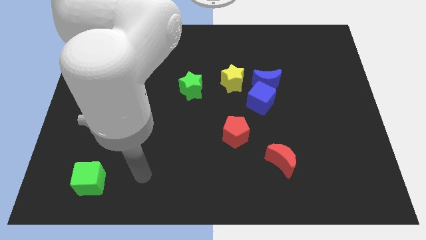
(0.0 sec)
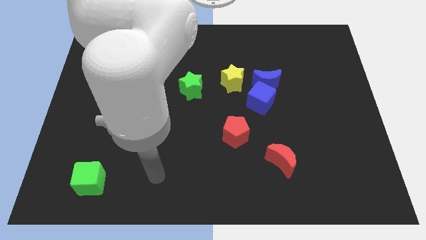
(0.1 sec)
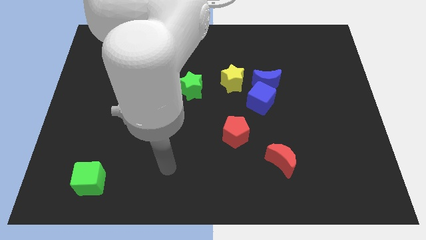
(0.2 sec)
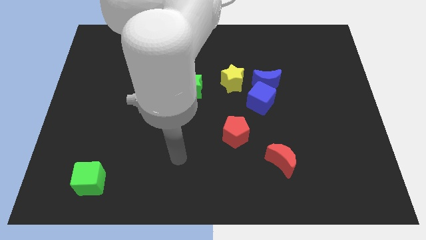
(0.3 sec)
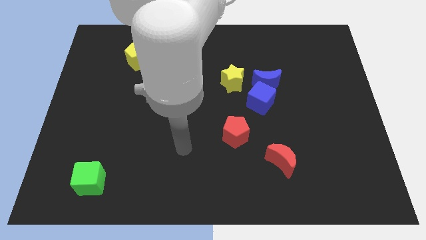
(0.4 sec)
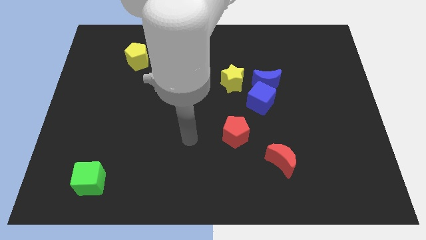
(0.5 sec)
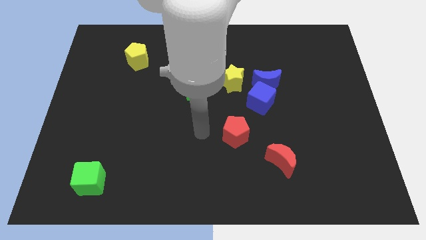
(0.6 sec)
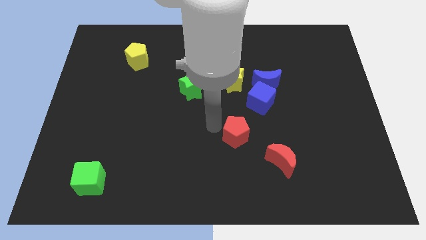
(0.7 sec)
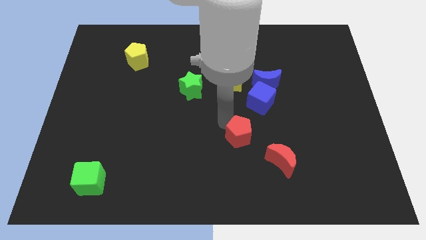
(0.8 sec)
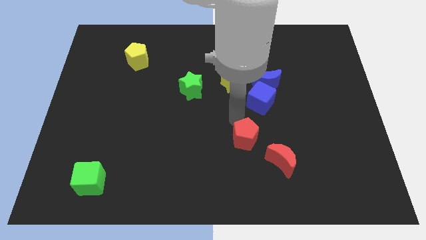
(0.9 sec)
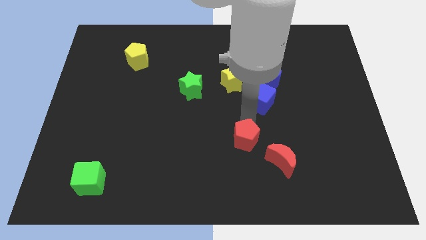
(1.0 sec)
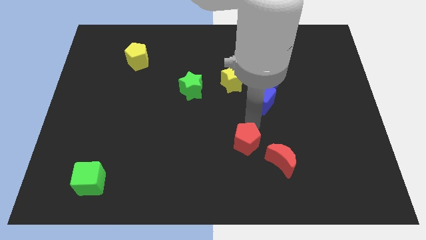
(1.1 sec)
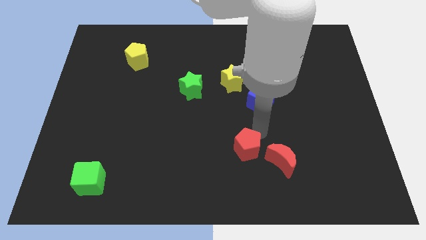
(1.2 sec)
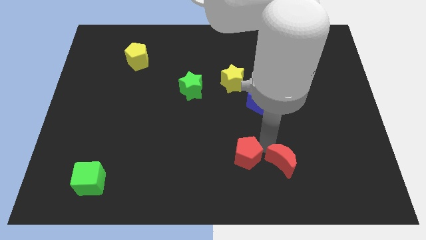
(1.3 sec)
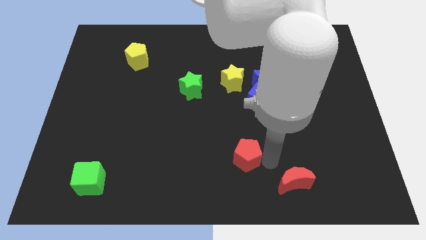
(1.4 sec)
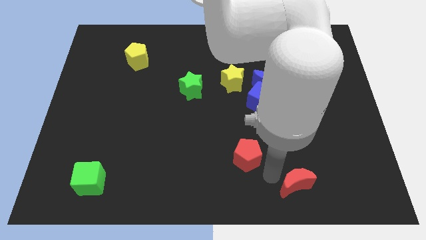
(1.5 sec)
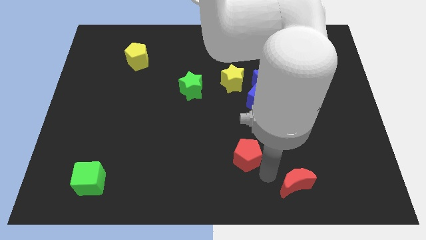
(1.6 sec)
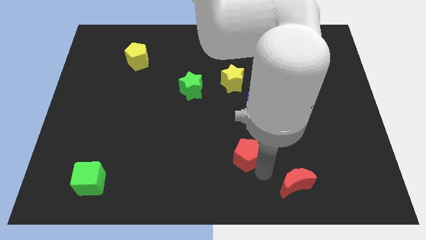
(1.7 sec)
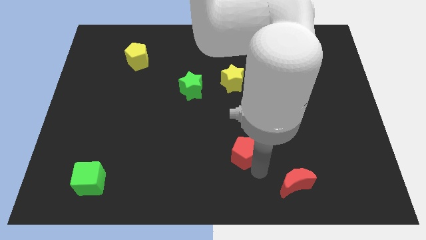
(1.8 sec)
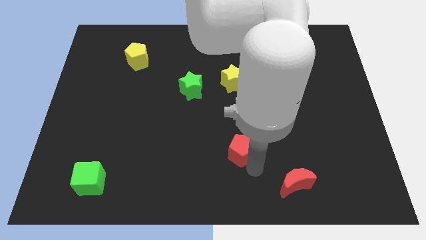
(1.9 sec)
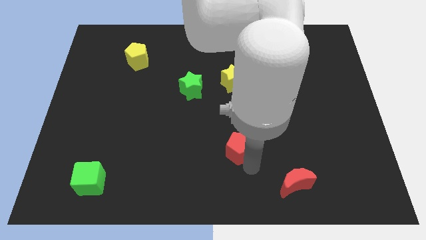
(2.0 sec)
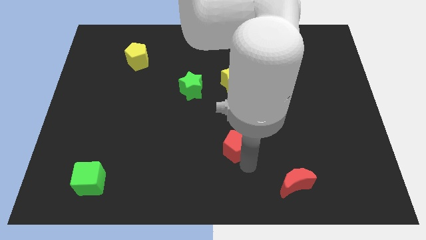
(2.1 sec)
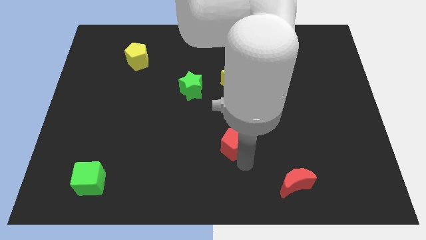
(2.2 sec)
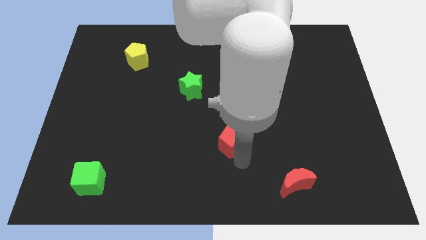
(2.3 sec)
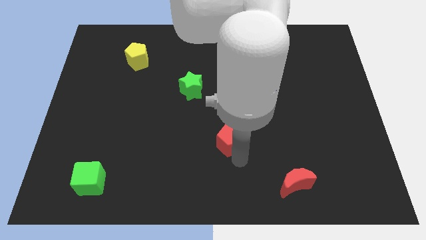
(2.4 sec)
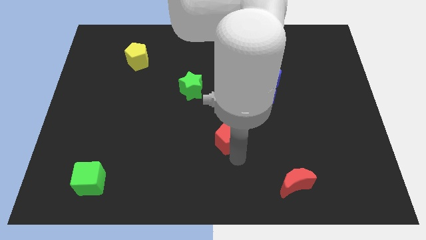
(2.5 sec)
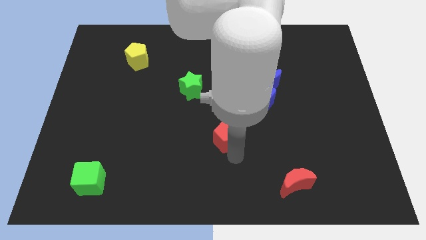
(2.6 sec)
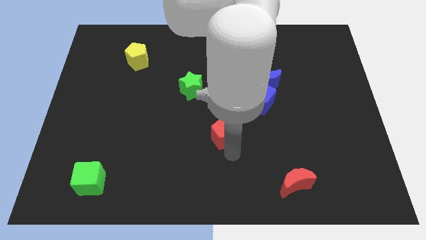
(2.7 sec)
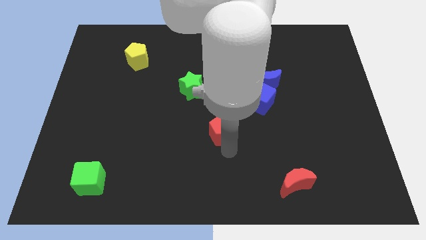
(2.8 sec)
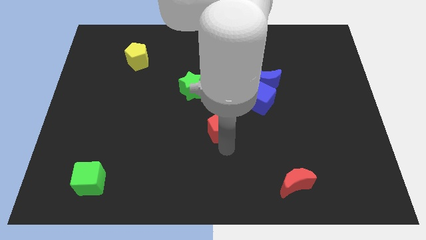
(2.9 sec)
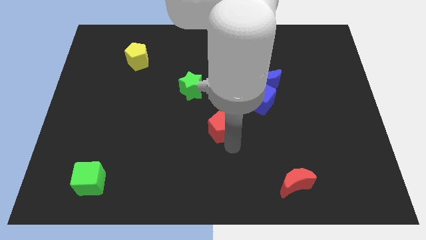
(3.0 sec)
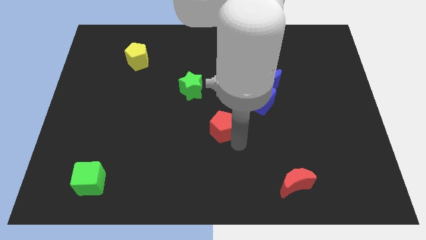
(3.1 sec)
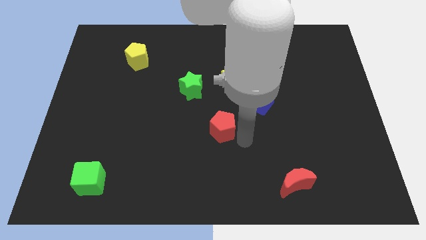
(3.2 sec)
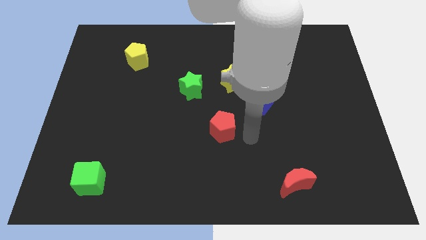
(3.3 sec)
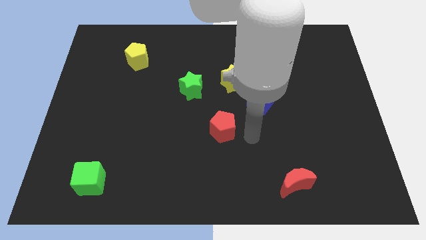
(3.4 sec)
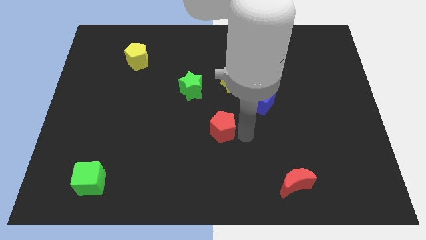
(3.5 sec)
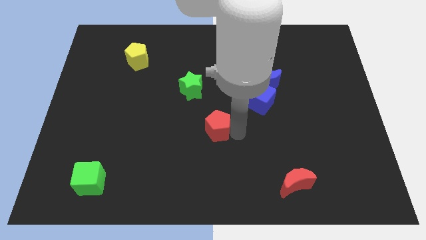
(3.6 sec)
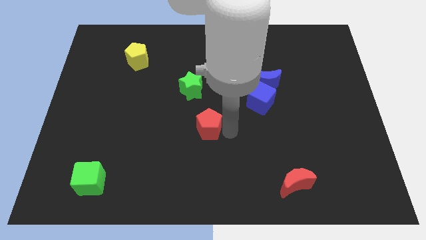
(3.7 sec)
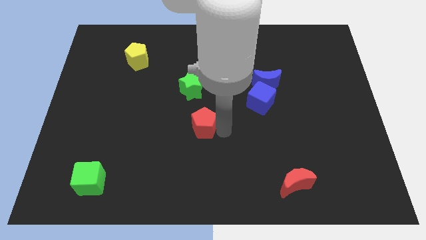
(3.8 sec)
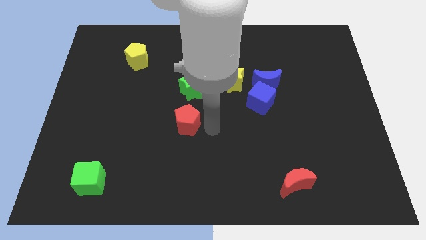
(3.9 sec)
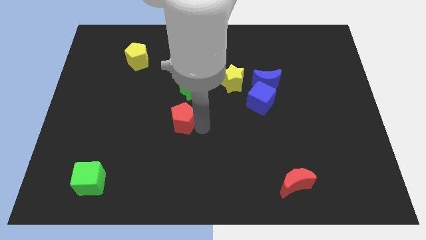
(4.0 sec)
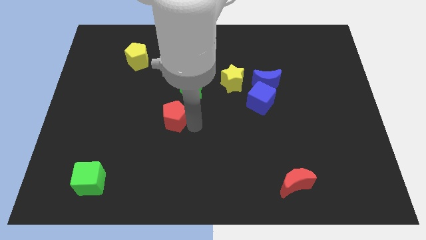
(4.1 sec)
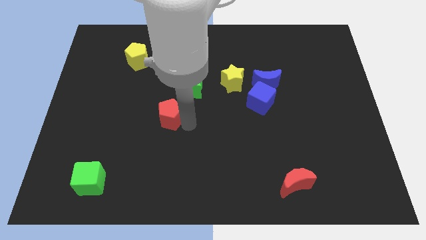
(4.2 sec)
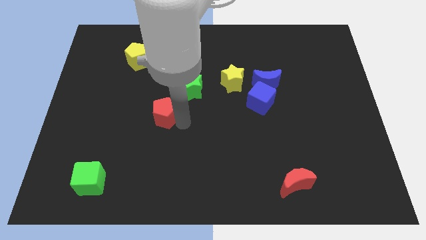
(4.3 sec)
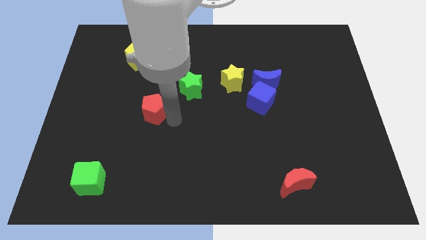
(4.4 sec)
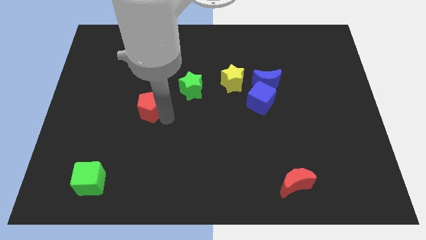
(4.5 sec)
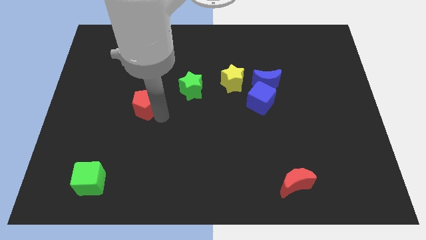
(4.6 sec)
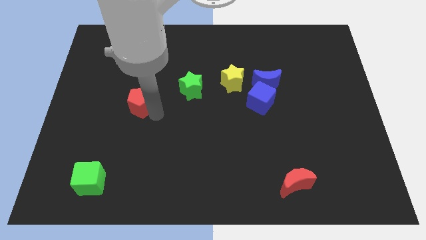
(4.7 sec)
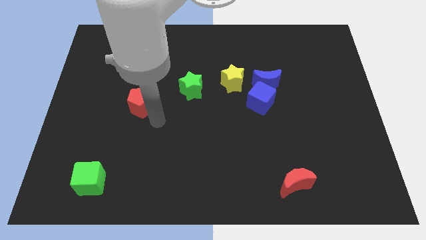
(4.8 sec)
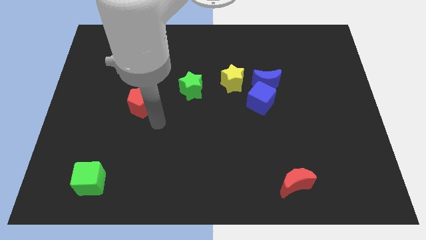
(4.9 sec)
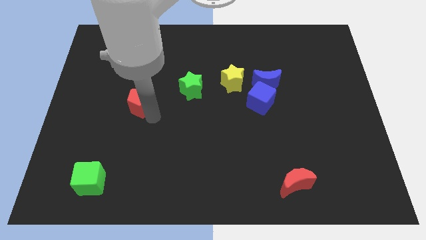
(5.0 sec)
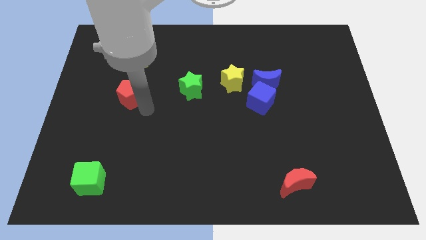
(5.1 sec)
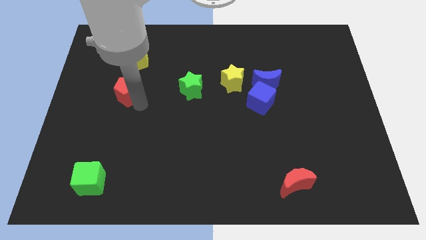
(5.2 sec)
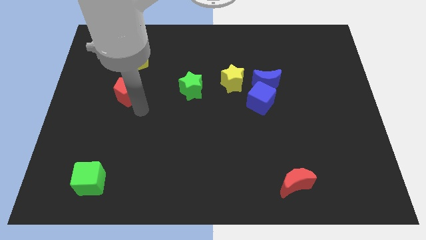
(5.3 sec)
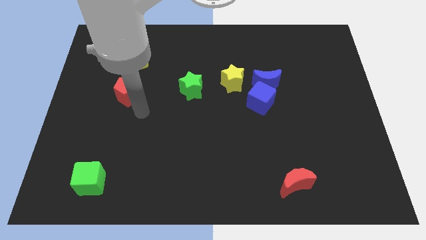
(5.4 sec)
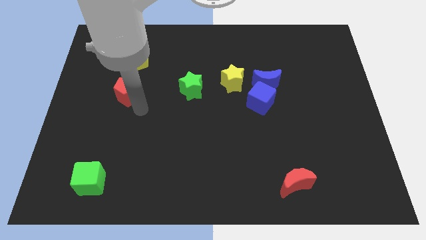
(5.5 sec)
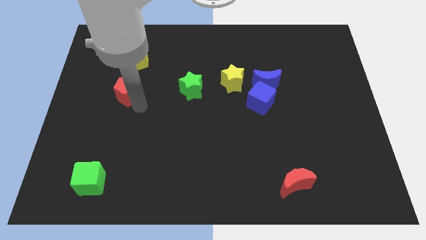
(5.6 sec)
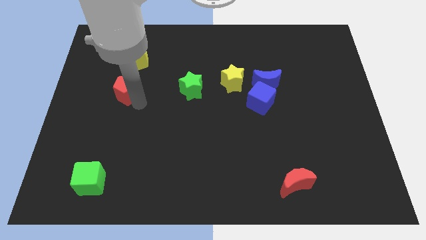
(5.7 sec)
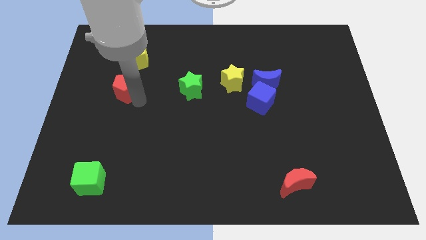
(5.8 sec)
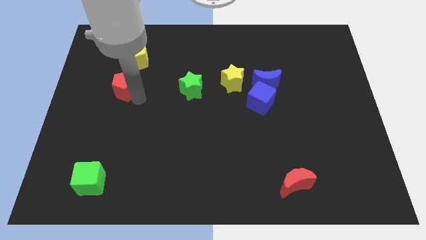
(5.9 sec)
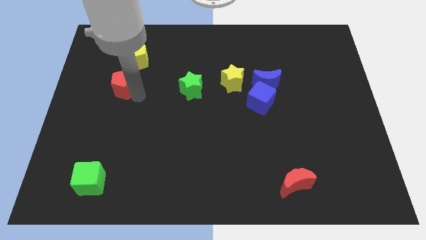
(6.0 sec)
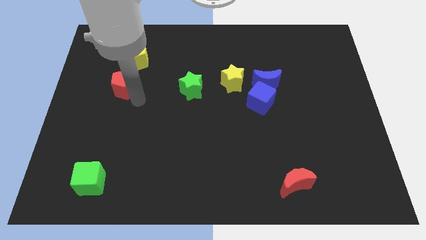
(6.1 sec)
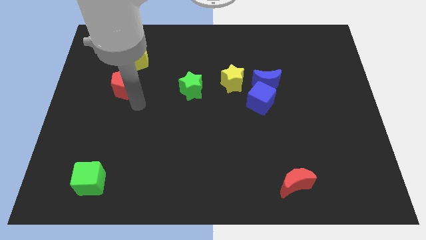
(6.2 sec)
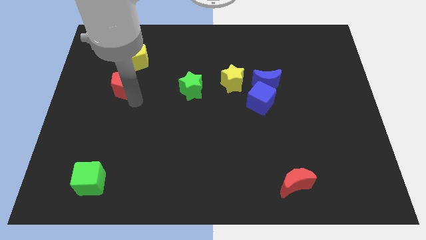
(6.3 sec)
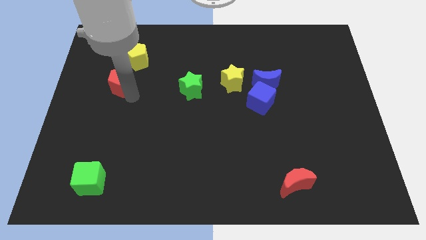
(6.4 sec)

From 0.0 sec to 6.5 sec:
move the red pentagon to the bottom left of the yellow pentagon

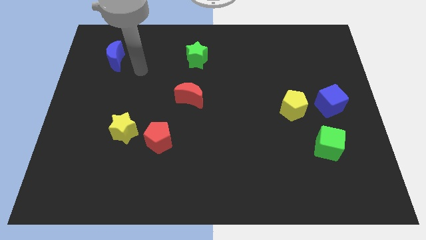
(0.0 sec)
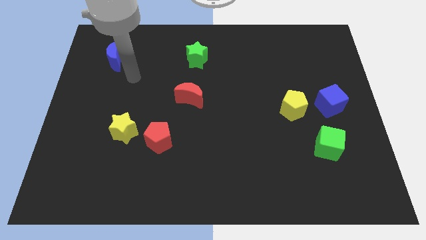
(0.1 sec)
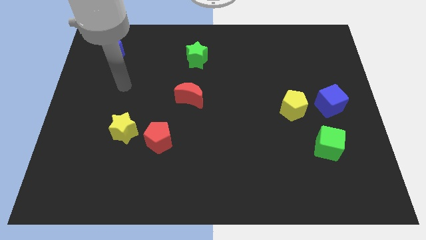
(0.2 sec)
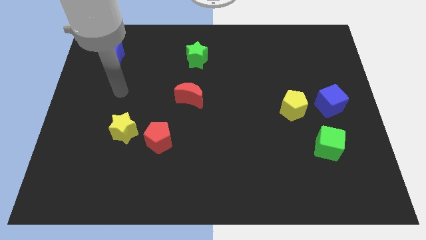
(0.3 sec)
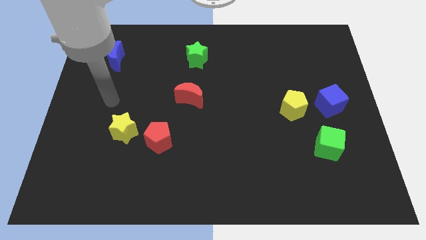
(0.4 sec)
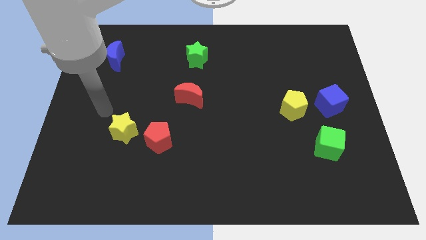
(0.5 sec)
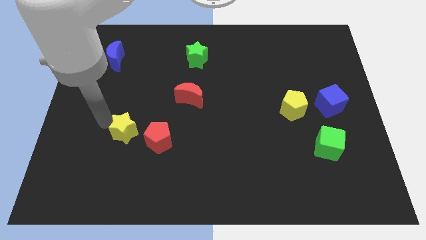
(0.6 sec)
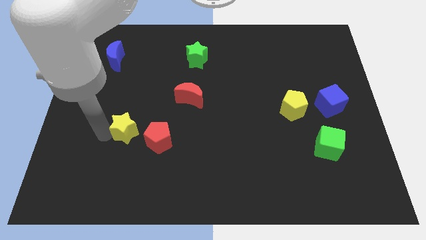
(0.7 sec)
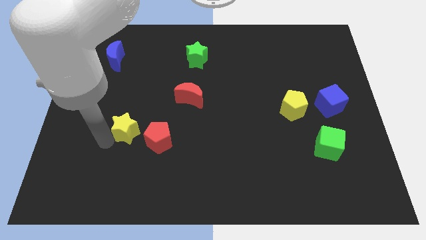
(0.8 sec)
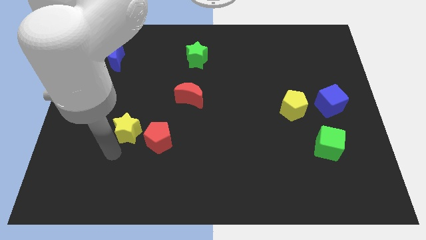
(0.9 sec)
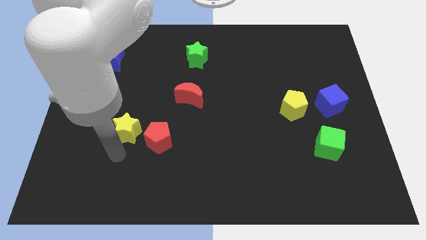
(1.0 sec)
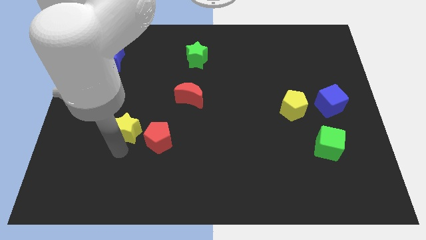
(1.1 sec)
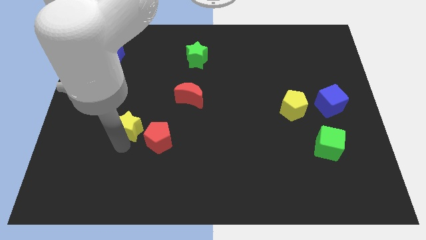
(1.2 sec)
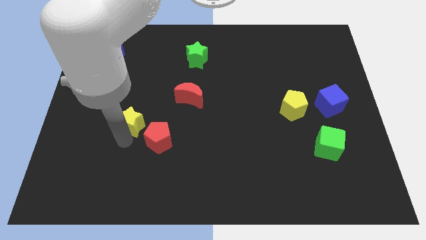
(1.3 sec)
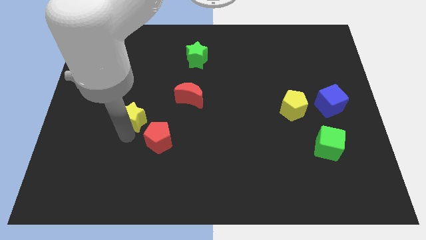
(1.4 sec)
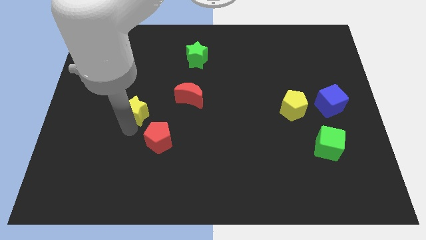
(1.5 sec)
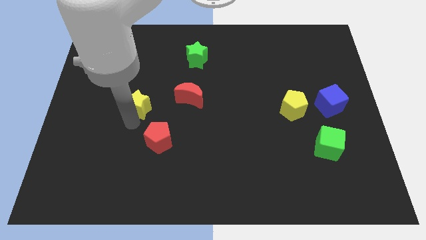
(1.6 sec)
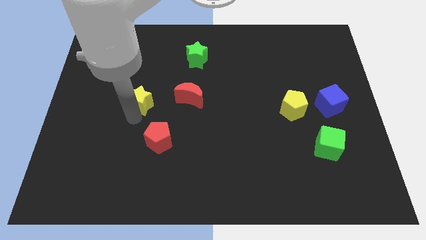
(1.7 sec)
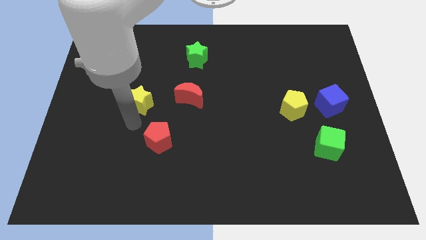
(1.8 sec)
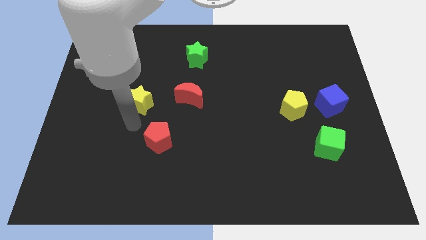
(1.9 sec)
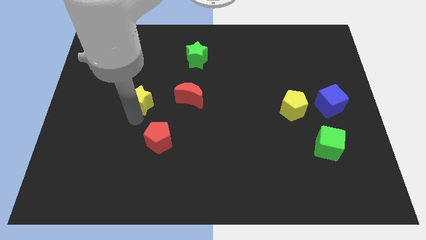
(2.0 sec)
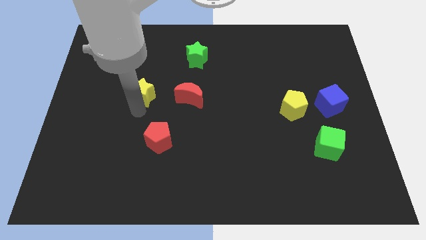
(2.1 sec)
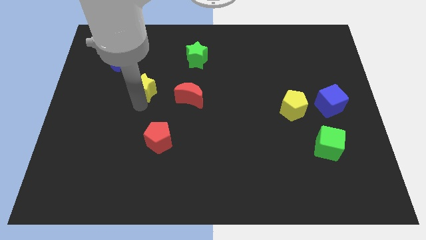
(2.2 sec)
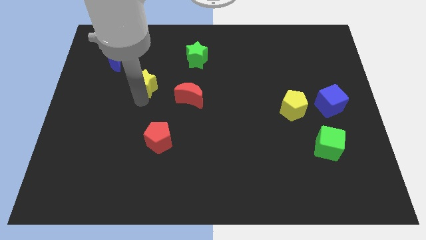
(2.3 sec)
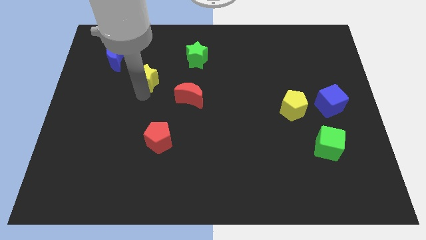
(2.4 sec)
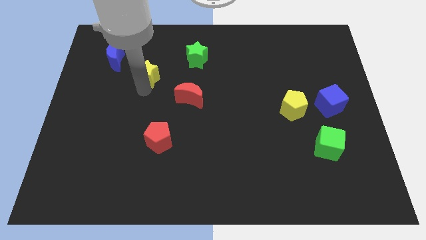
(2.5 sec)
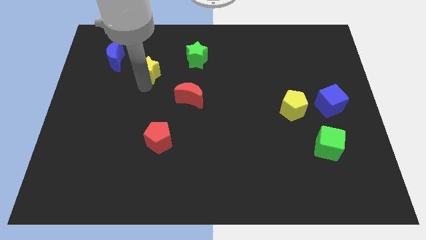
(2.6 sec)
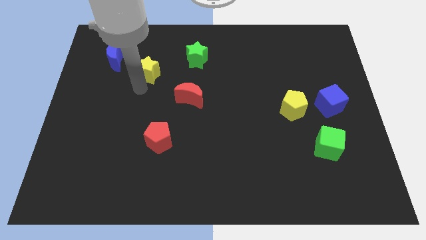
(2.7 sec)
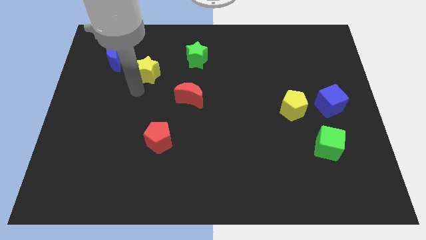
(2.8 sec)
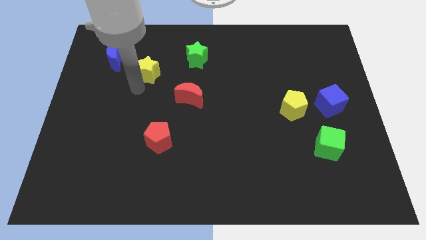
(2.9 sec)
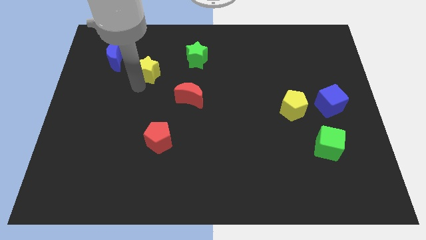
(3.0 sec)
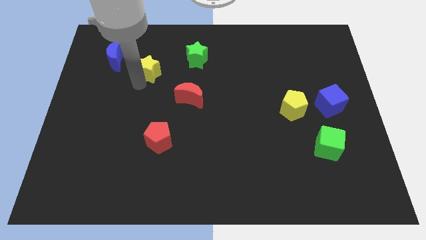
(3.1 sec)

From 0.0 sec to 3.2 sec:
put the yellow star just left of the green star
